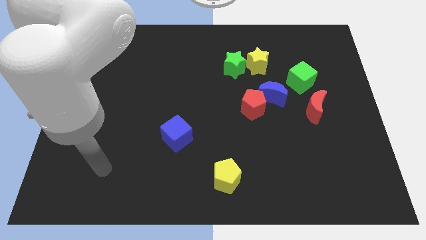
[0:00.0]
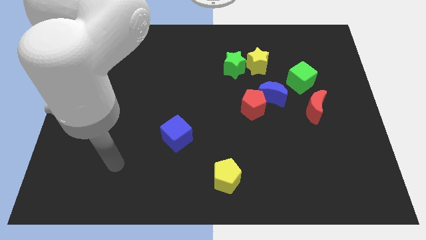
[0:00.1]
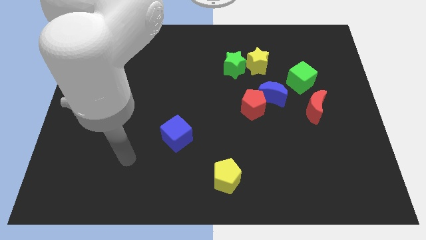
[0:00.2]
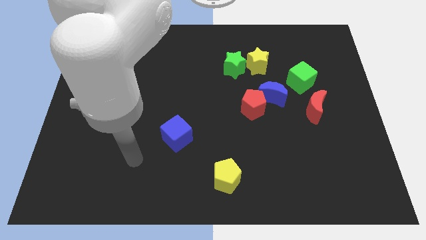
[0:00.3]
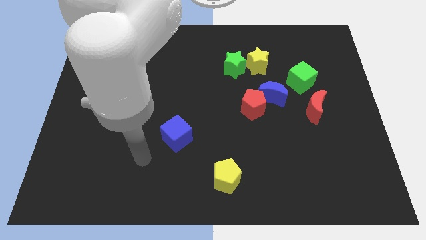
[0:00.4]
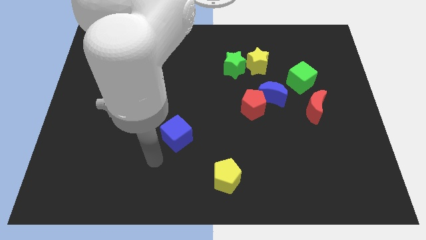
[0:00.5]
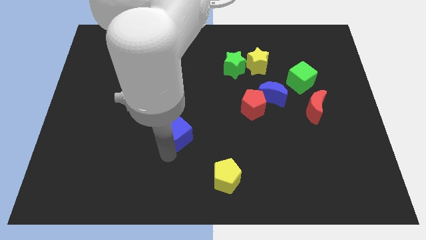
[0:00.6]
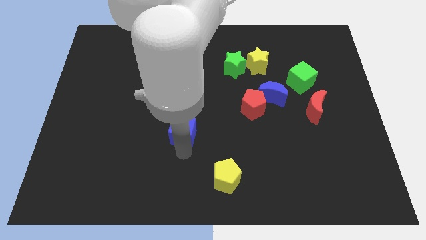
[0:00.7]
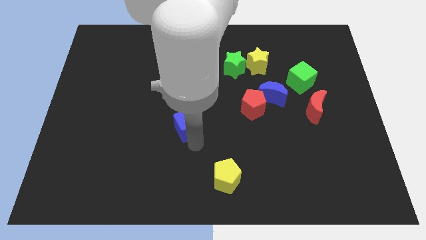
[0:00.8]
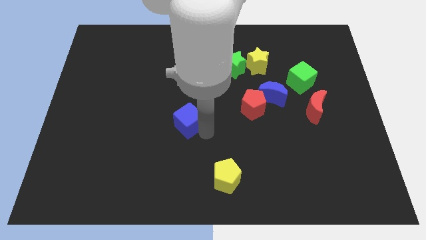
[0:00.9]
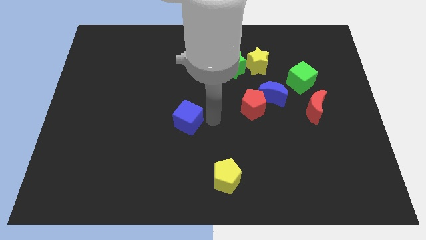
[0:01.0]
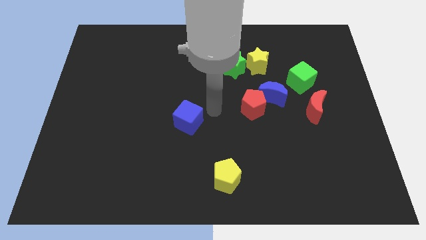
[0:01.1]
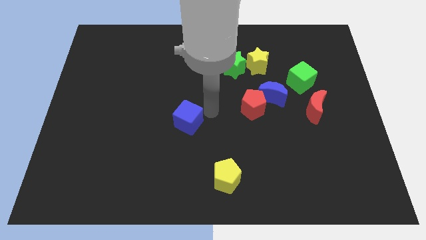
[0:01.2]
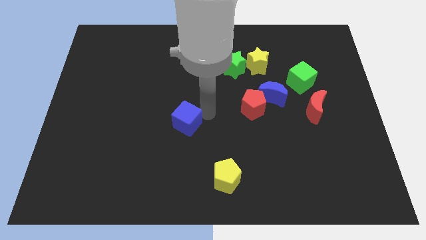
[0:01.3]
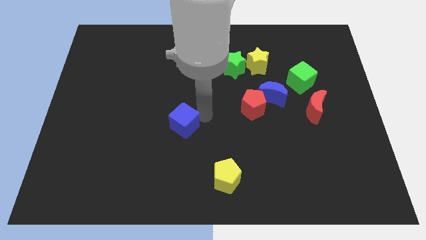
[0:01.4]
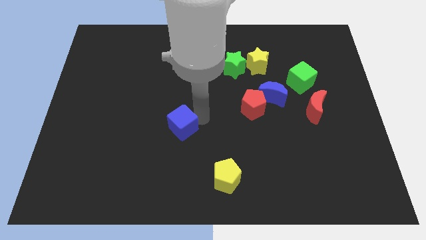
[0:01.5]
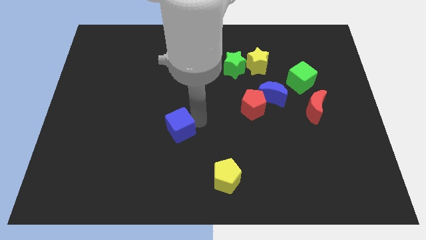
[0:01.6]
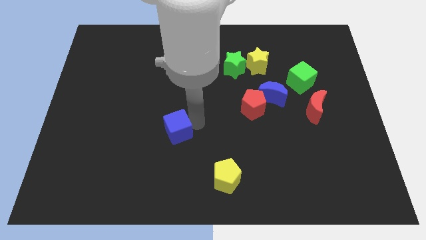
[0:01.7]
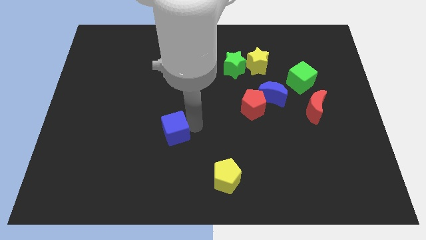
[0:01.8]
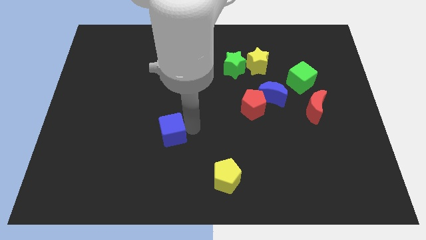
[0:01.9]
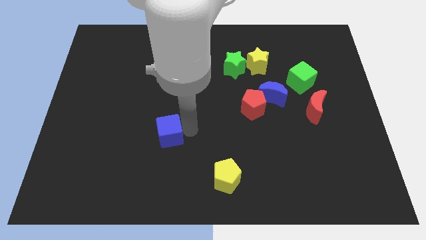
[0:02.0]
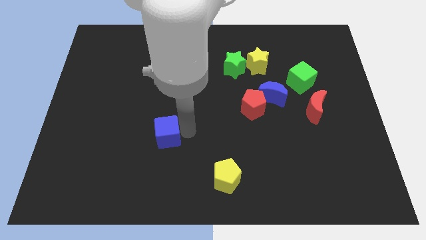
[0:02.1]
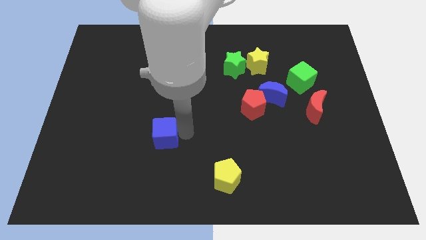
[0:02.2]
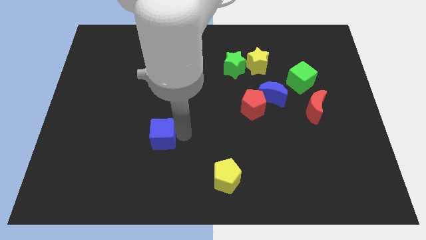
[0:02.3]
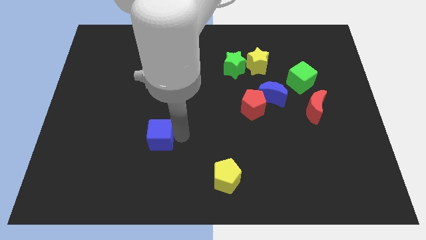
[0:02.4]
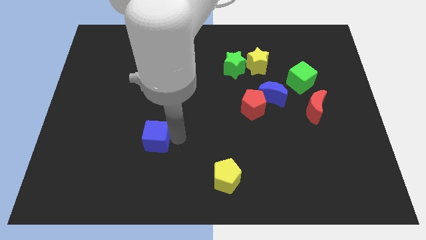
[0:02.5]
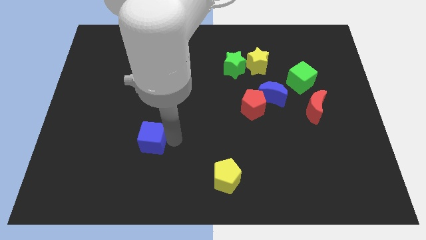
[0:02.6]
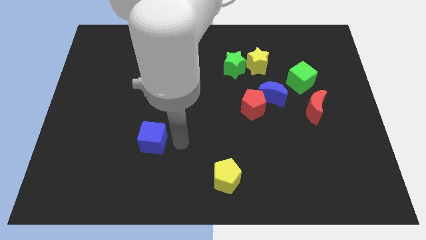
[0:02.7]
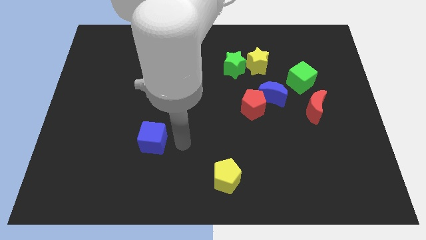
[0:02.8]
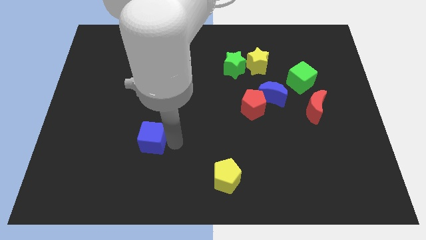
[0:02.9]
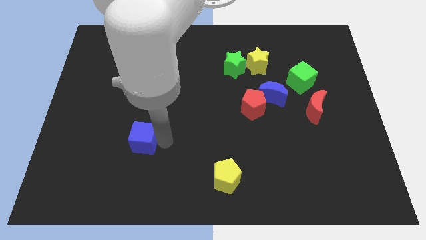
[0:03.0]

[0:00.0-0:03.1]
move the blue cube a little left

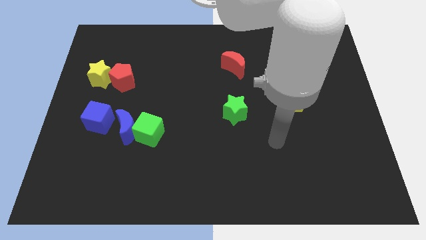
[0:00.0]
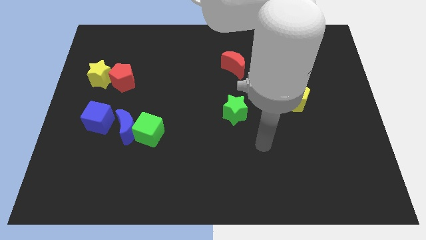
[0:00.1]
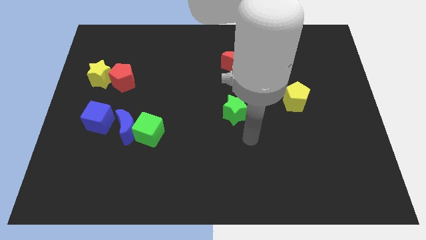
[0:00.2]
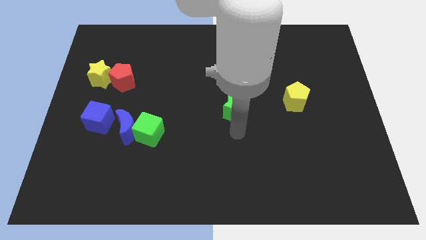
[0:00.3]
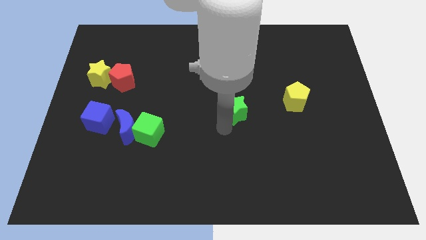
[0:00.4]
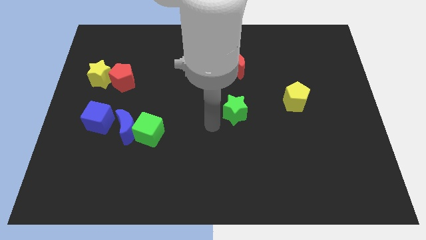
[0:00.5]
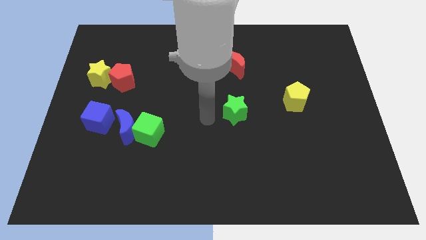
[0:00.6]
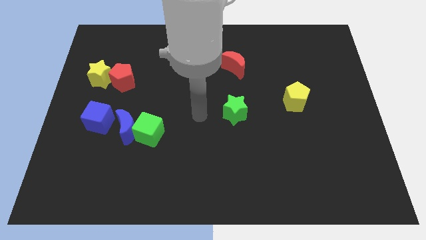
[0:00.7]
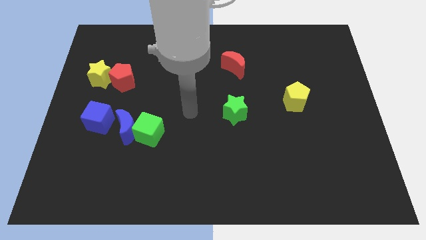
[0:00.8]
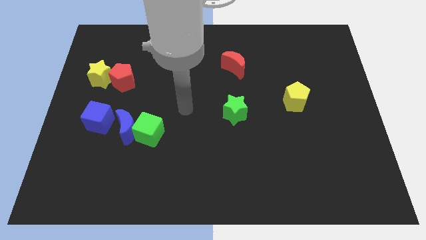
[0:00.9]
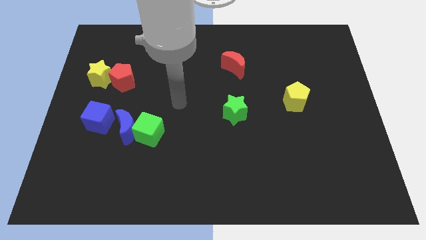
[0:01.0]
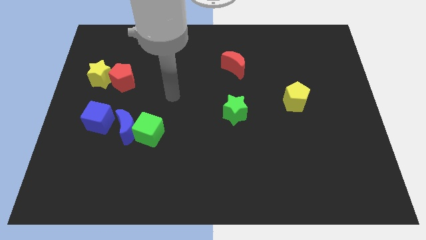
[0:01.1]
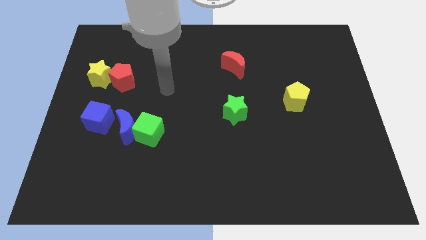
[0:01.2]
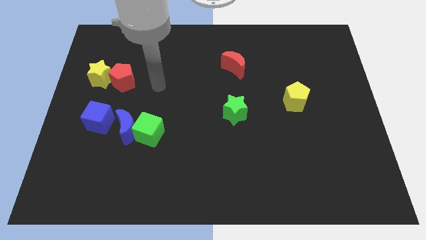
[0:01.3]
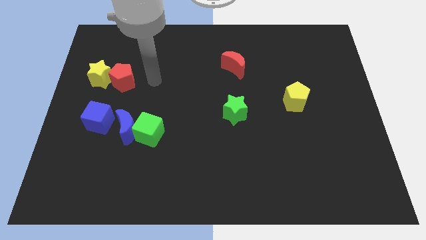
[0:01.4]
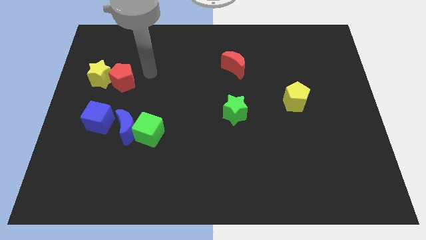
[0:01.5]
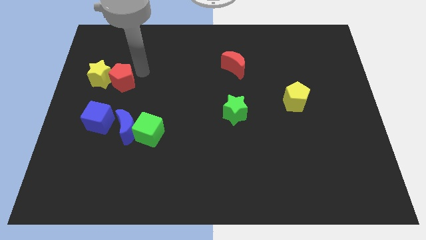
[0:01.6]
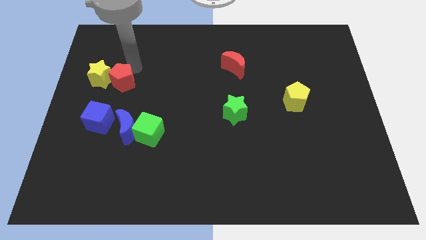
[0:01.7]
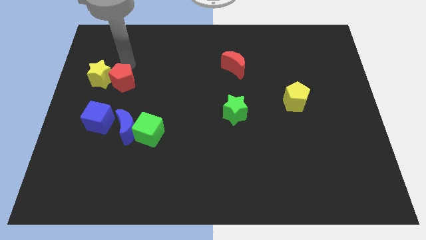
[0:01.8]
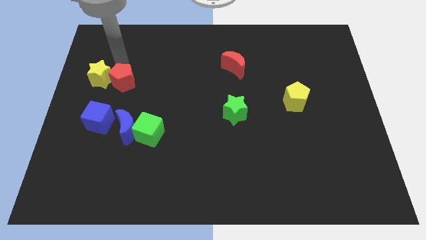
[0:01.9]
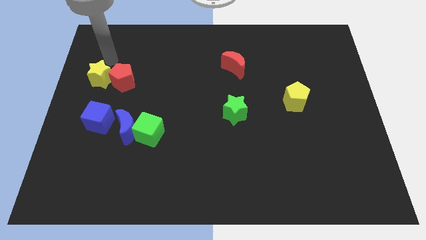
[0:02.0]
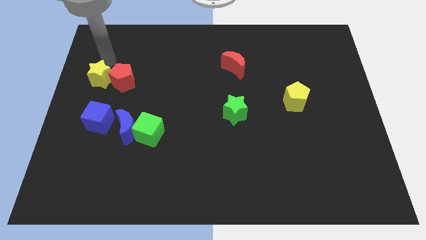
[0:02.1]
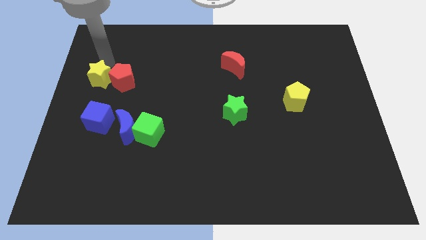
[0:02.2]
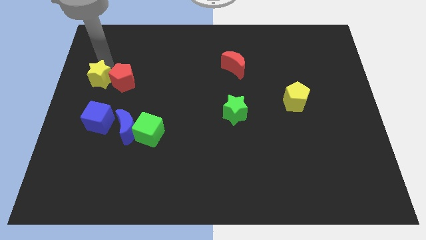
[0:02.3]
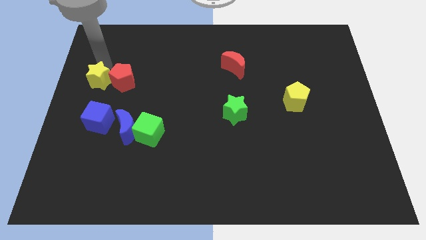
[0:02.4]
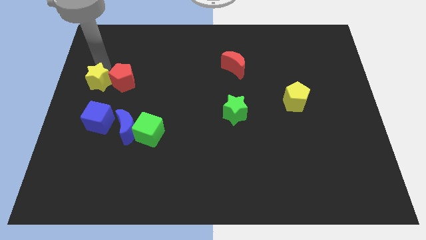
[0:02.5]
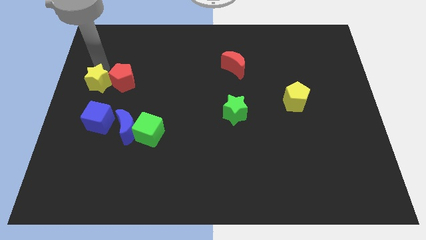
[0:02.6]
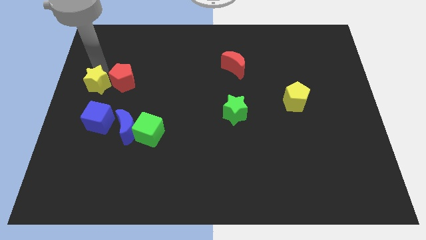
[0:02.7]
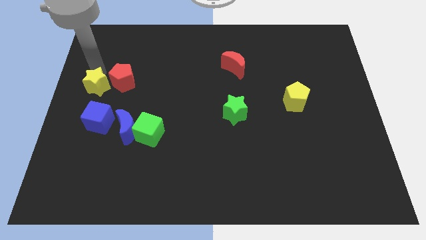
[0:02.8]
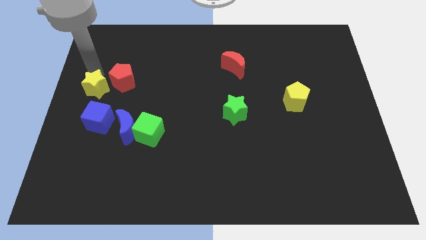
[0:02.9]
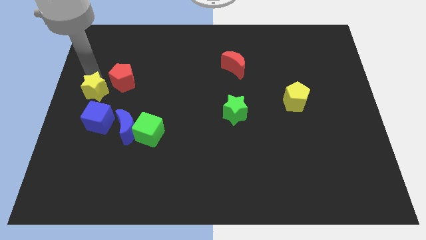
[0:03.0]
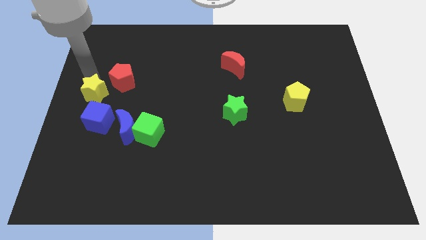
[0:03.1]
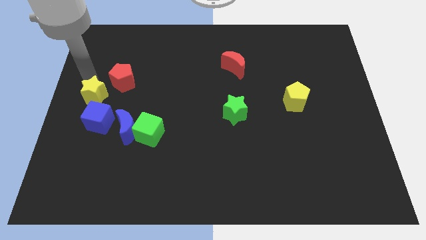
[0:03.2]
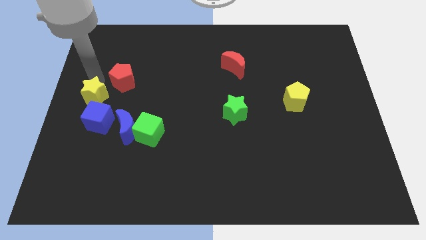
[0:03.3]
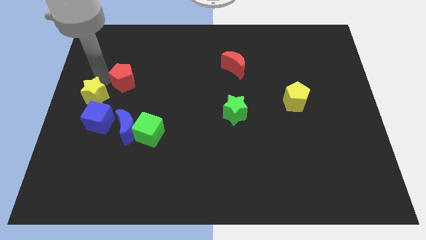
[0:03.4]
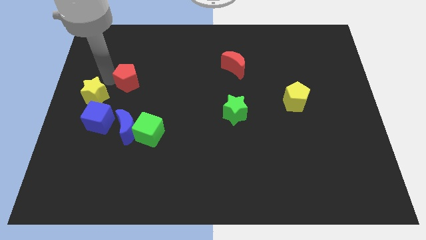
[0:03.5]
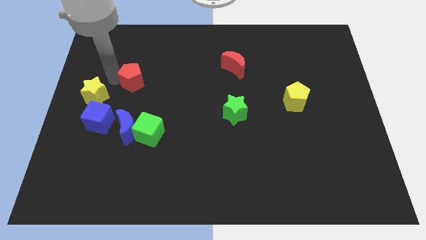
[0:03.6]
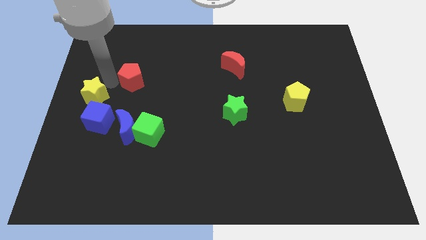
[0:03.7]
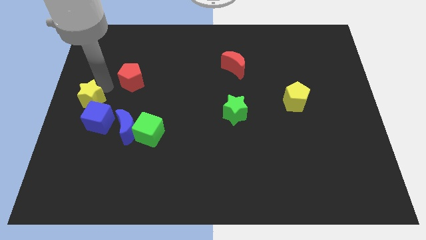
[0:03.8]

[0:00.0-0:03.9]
move the yellow star downwards a little

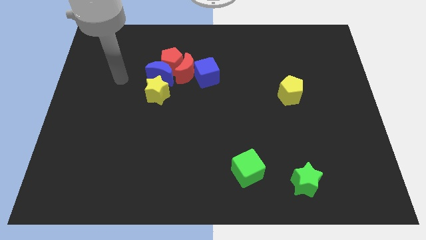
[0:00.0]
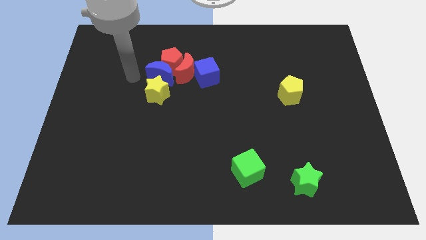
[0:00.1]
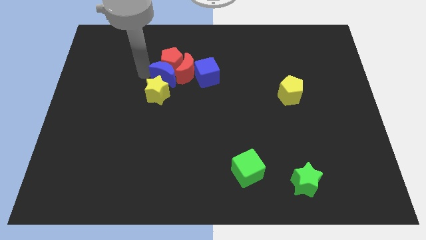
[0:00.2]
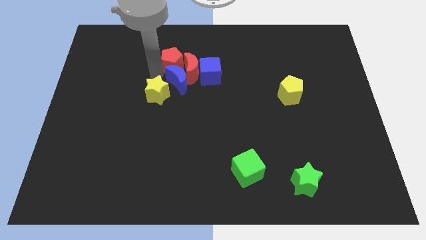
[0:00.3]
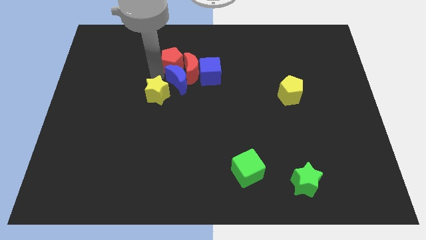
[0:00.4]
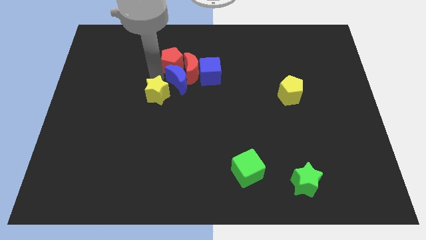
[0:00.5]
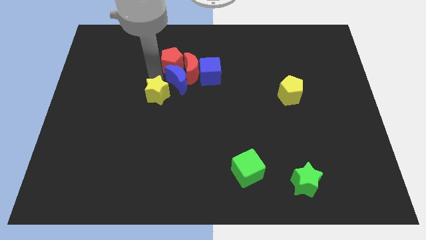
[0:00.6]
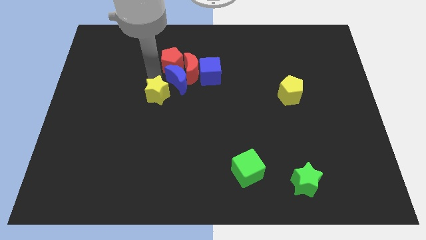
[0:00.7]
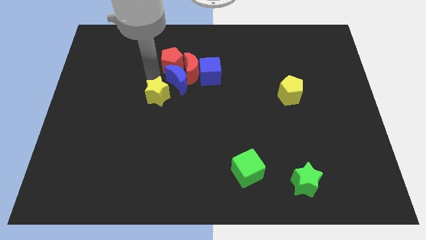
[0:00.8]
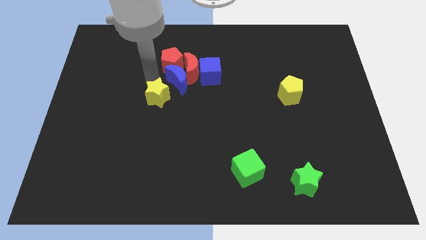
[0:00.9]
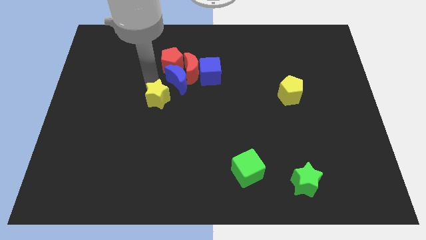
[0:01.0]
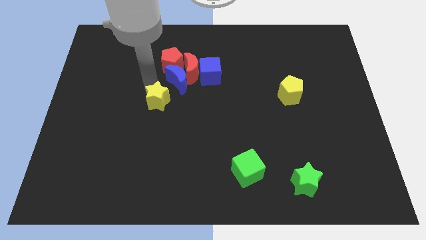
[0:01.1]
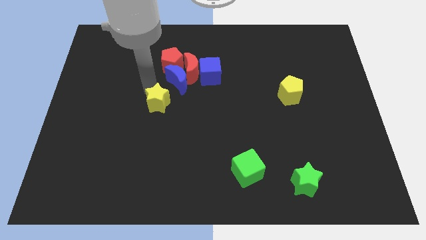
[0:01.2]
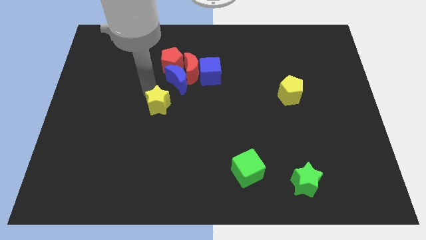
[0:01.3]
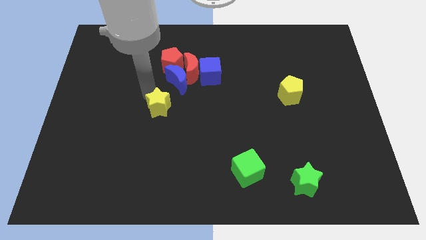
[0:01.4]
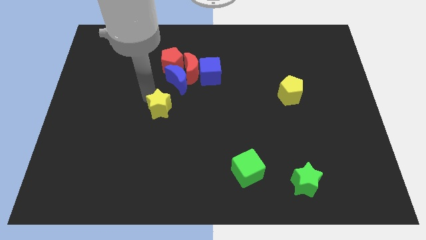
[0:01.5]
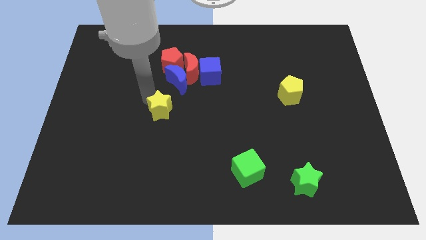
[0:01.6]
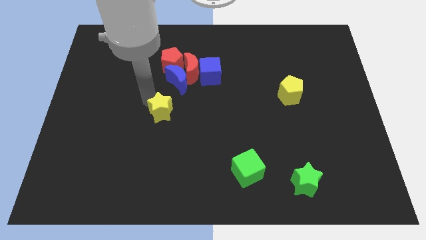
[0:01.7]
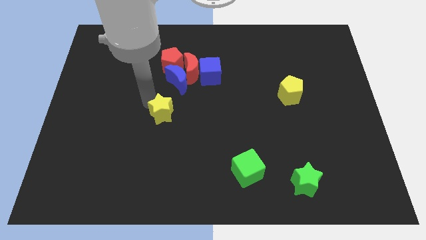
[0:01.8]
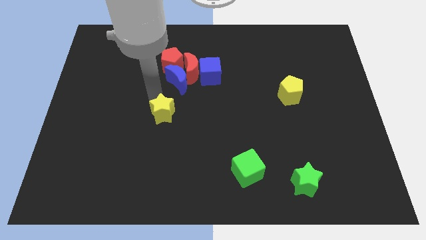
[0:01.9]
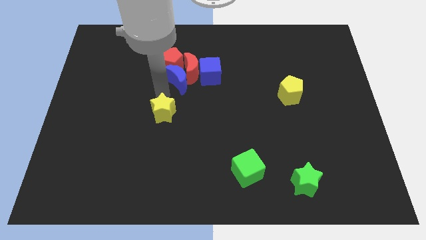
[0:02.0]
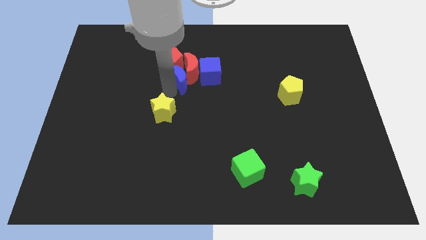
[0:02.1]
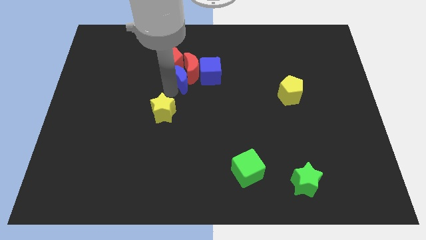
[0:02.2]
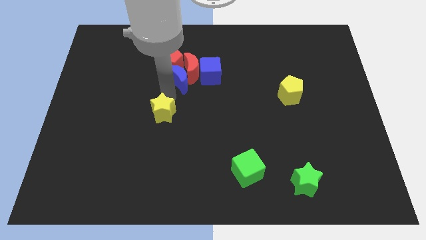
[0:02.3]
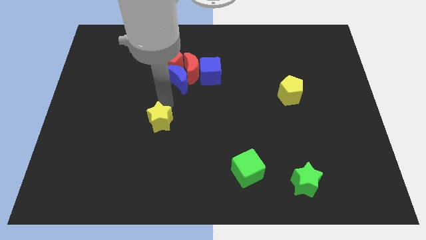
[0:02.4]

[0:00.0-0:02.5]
move the yellow star somewhat downwards
